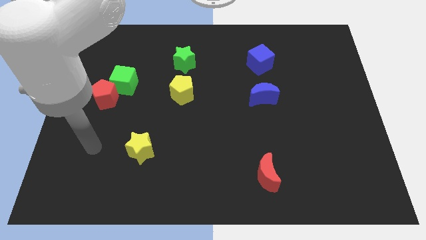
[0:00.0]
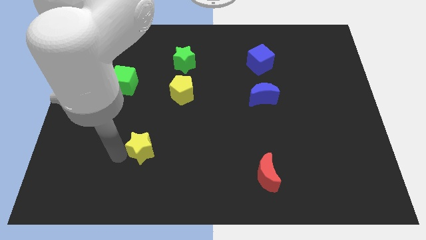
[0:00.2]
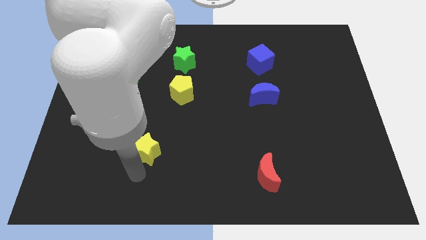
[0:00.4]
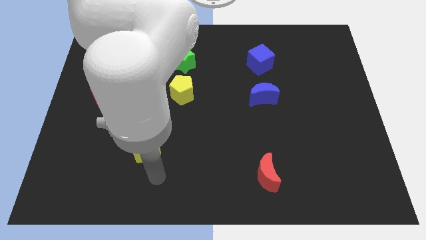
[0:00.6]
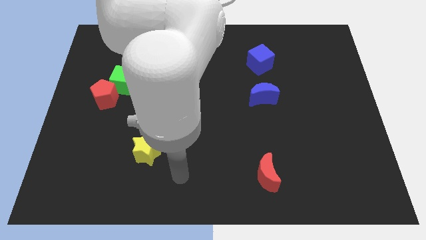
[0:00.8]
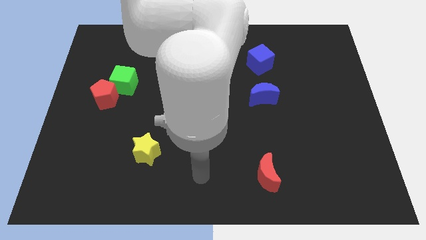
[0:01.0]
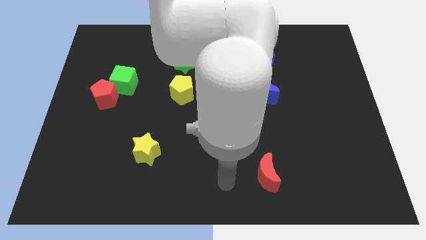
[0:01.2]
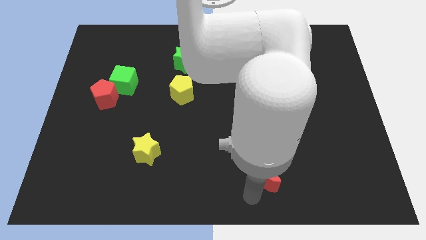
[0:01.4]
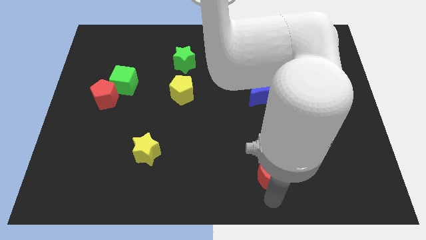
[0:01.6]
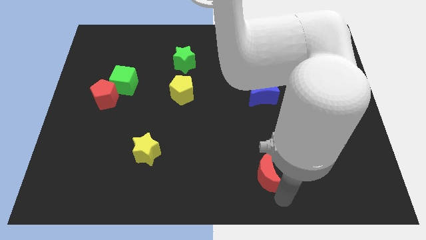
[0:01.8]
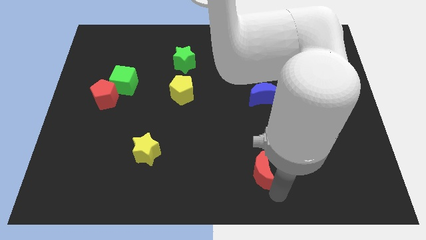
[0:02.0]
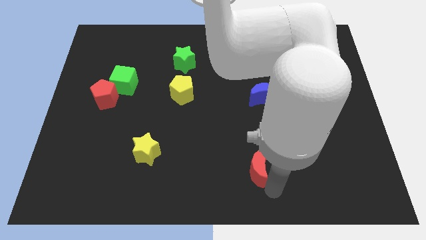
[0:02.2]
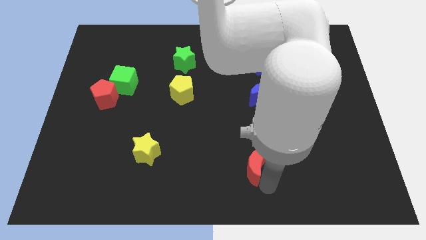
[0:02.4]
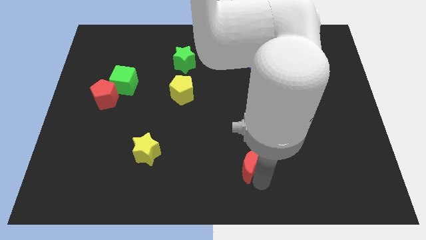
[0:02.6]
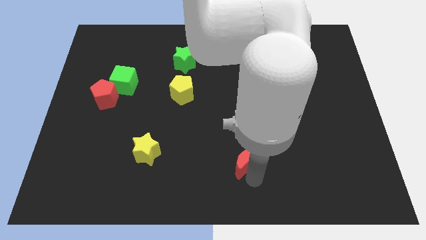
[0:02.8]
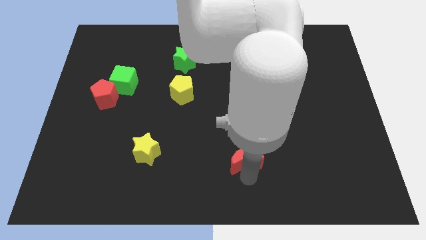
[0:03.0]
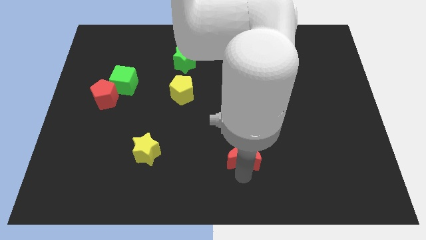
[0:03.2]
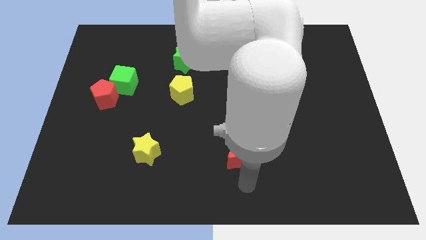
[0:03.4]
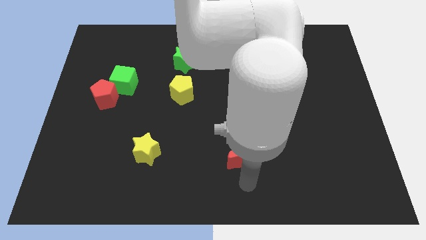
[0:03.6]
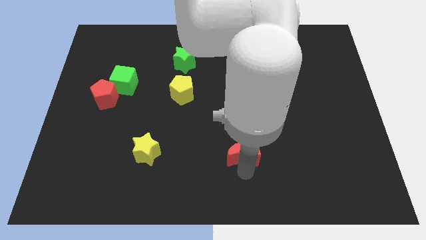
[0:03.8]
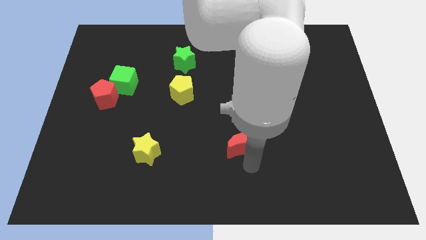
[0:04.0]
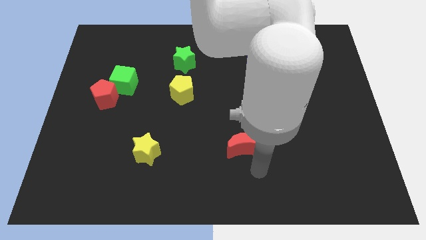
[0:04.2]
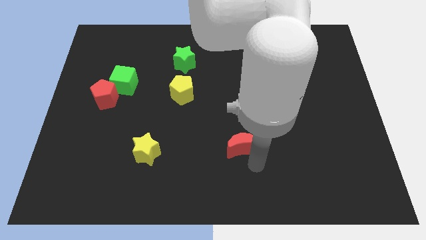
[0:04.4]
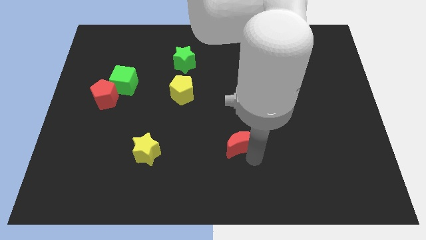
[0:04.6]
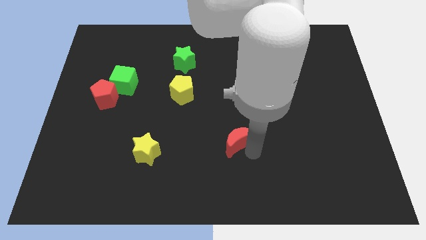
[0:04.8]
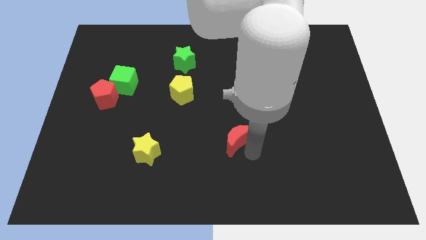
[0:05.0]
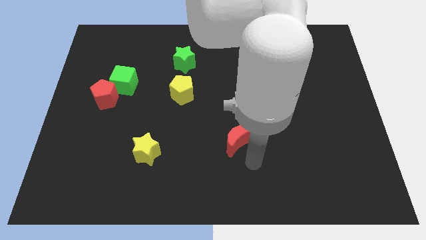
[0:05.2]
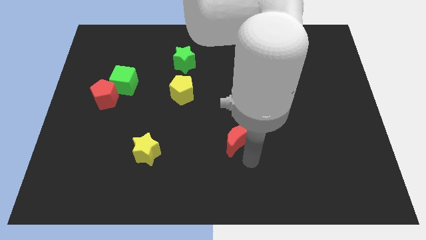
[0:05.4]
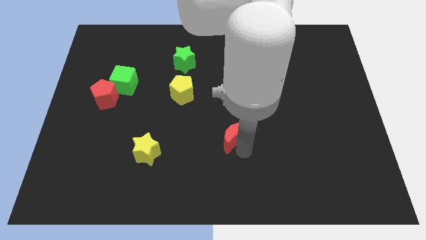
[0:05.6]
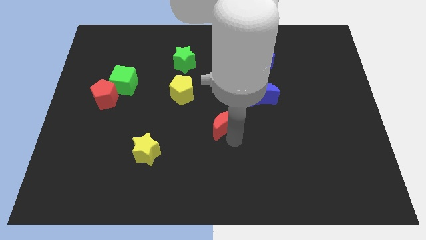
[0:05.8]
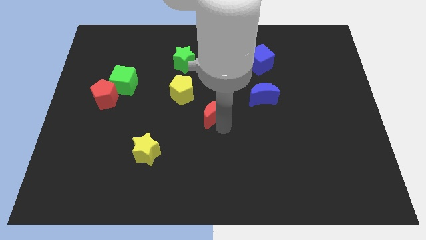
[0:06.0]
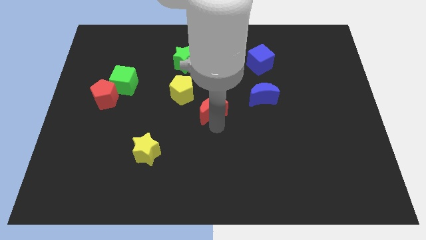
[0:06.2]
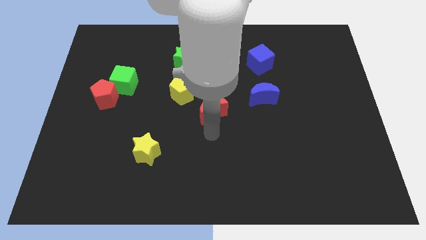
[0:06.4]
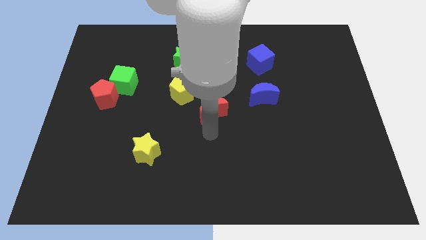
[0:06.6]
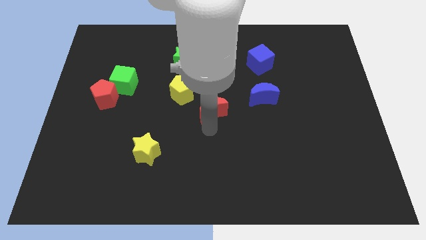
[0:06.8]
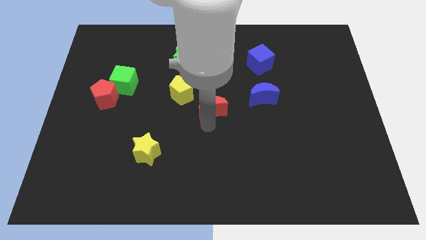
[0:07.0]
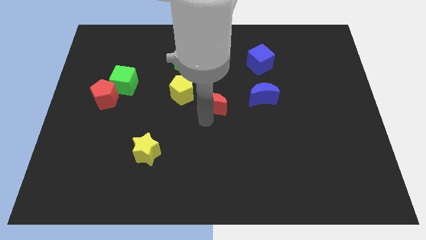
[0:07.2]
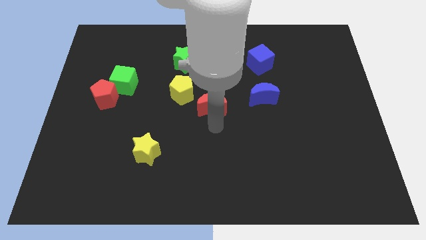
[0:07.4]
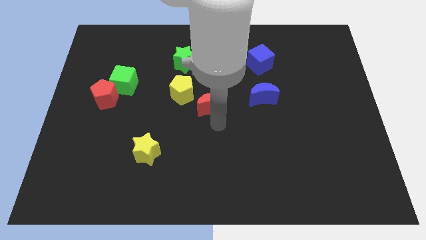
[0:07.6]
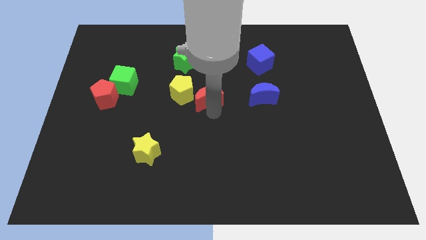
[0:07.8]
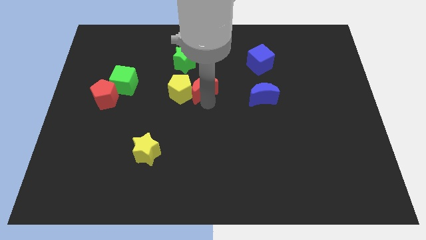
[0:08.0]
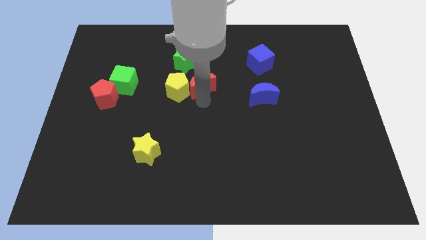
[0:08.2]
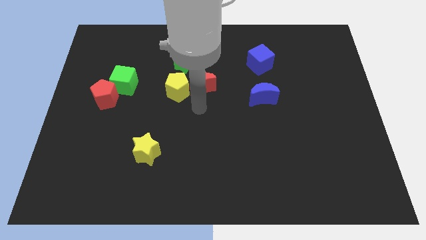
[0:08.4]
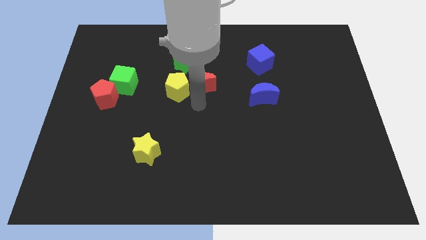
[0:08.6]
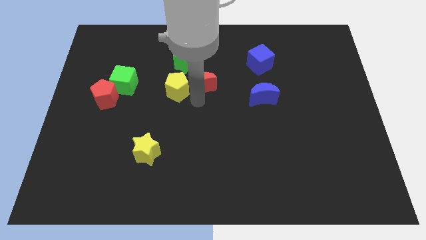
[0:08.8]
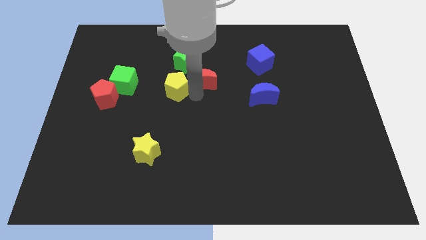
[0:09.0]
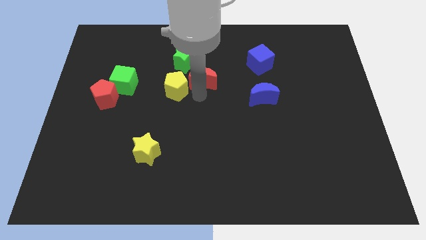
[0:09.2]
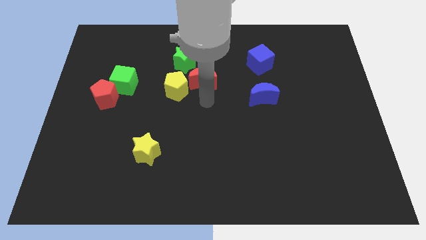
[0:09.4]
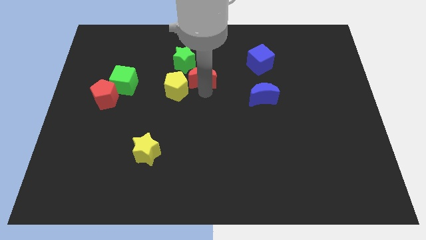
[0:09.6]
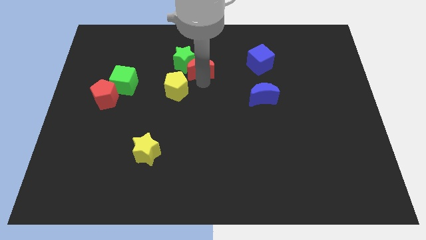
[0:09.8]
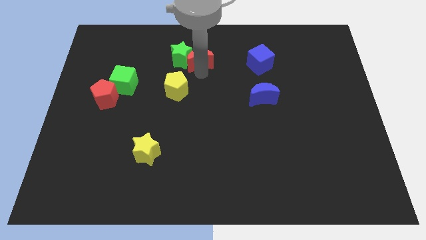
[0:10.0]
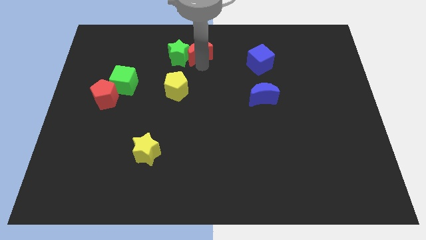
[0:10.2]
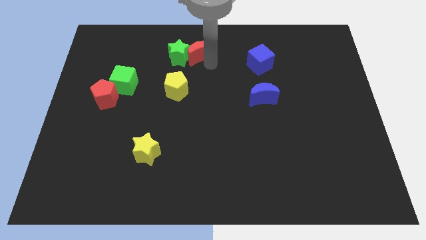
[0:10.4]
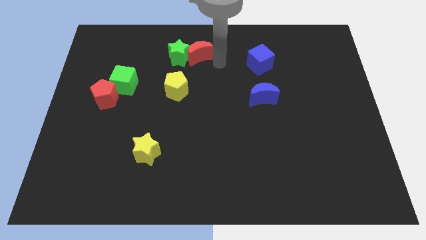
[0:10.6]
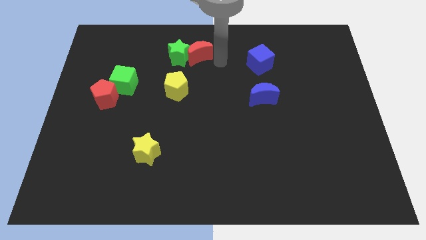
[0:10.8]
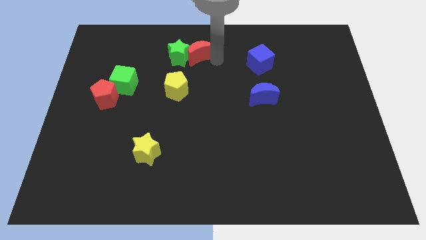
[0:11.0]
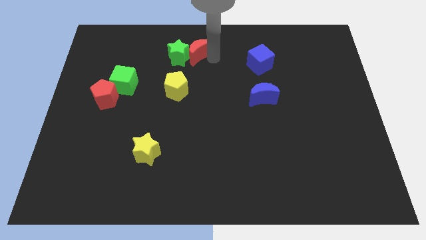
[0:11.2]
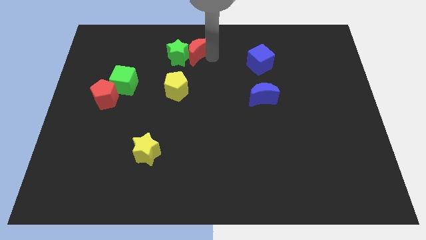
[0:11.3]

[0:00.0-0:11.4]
move the red moon above the yellow pentagon

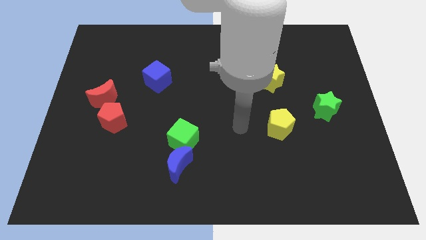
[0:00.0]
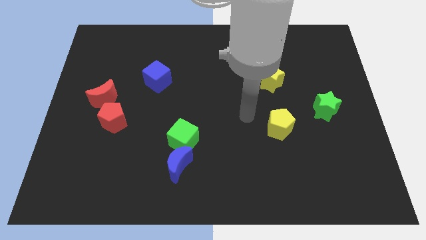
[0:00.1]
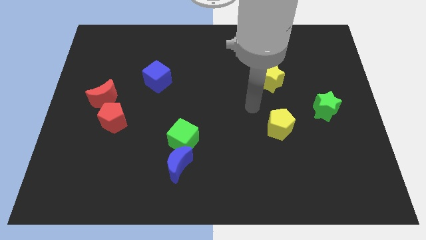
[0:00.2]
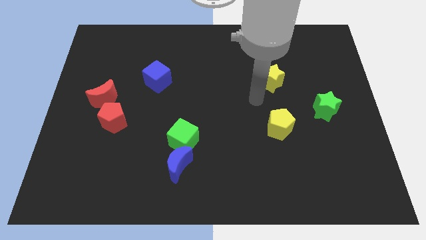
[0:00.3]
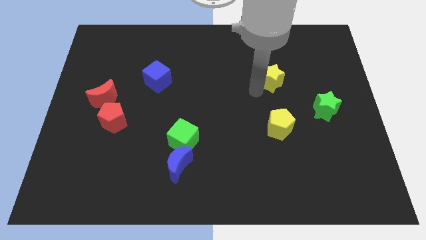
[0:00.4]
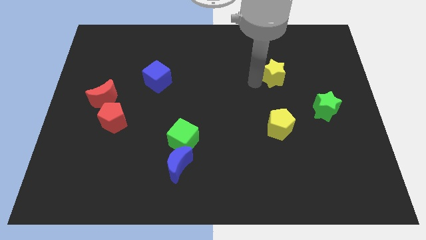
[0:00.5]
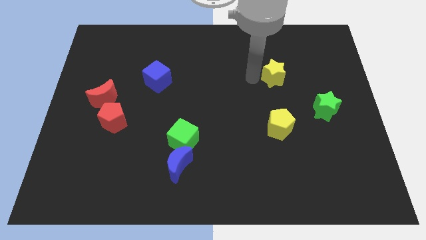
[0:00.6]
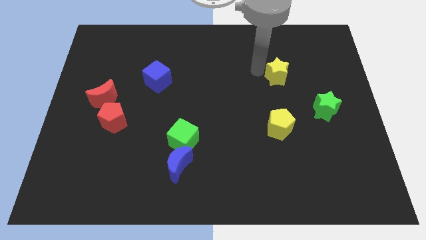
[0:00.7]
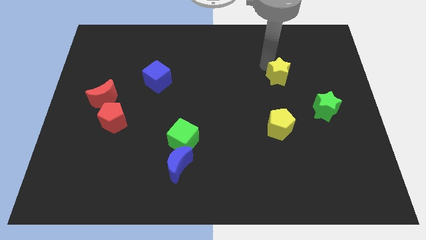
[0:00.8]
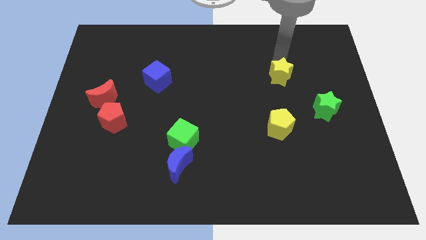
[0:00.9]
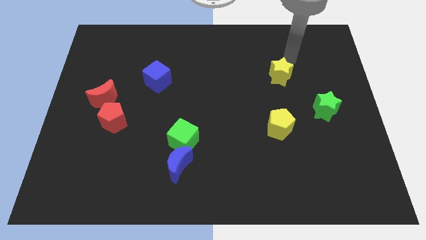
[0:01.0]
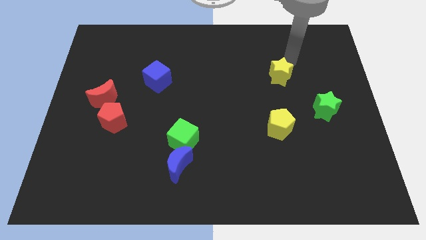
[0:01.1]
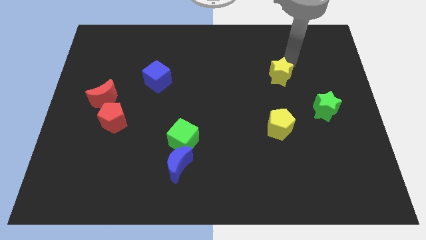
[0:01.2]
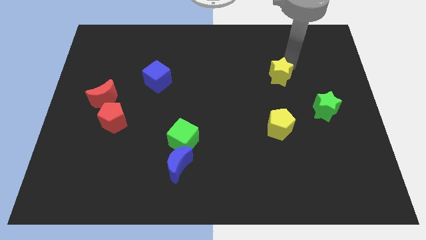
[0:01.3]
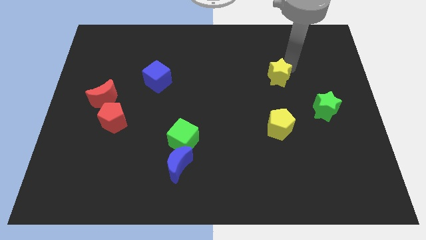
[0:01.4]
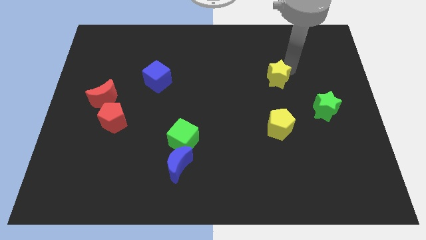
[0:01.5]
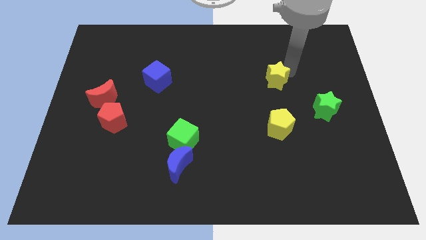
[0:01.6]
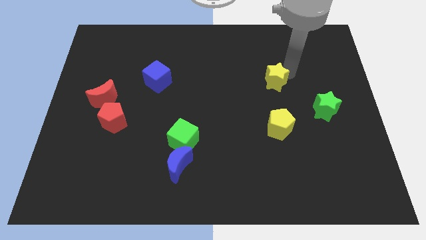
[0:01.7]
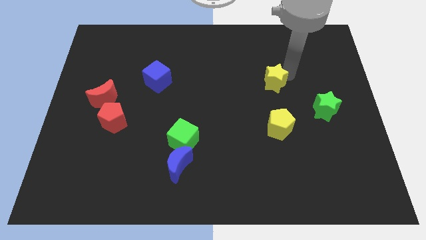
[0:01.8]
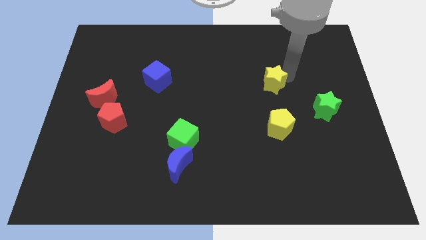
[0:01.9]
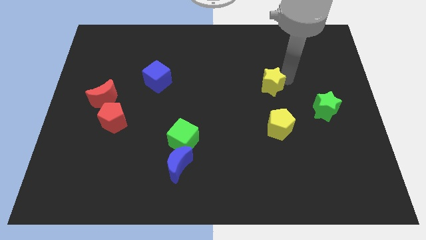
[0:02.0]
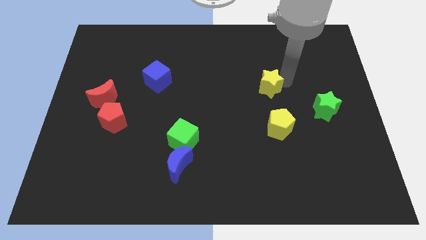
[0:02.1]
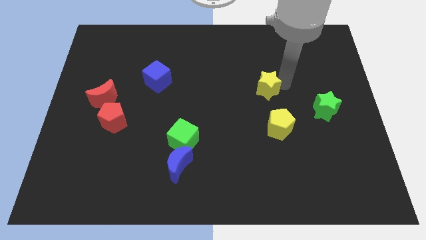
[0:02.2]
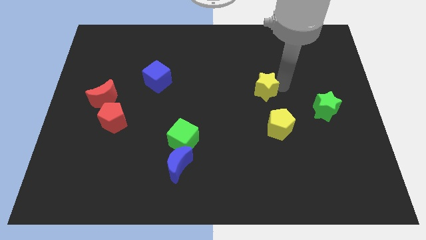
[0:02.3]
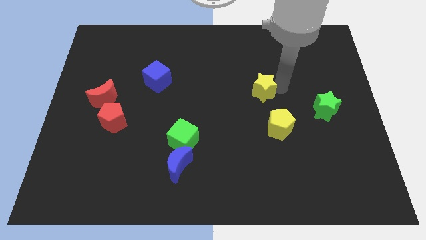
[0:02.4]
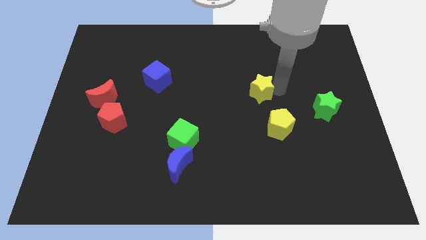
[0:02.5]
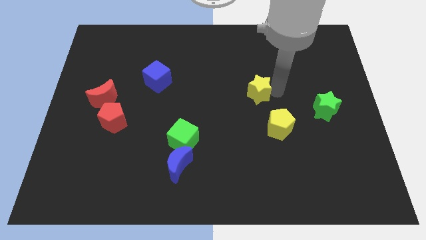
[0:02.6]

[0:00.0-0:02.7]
slide the yellow star diagonally up and to the left of the yellow pentagon
